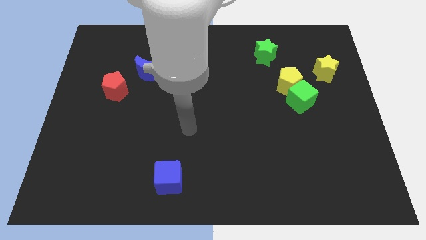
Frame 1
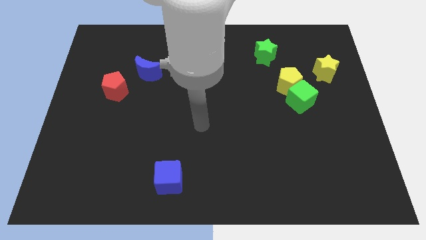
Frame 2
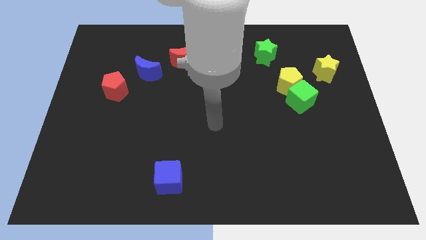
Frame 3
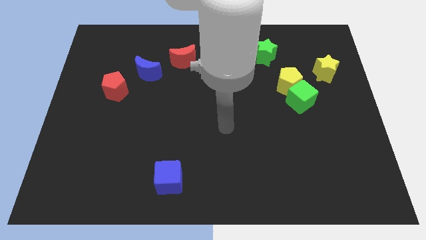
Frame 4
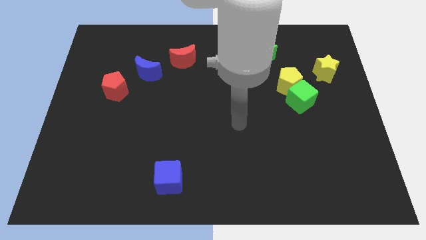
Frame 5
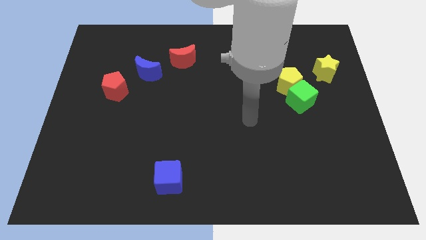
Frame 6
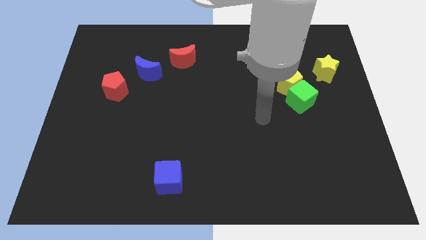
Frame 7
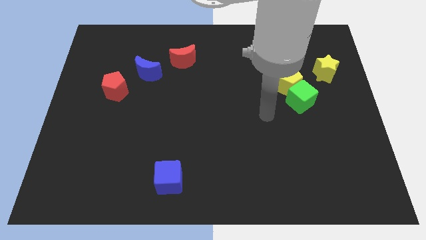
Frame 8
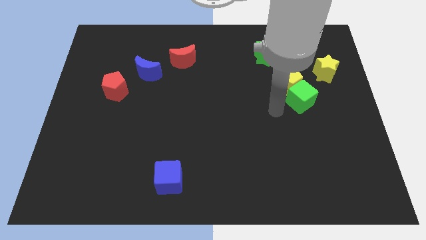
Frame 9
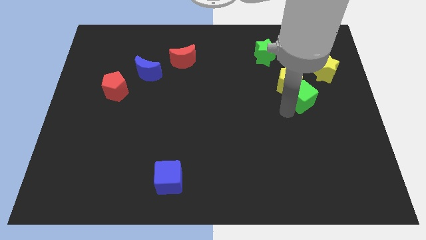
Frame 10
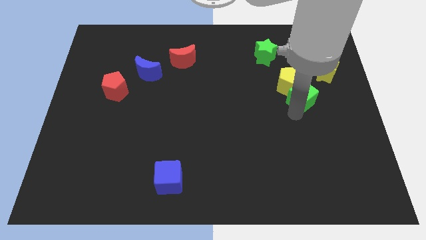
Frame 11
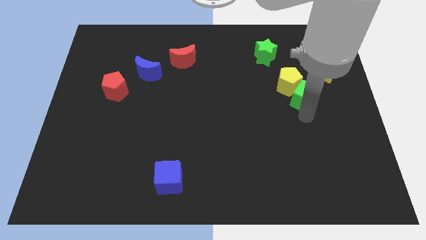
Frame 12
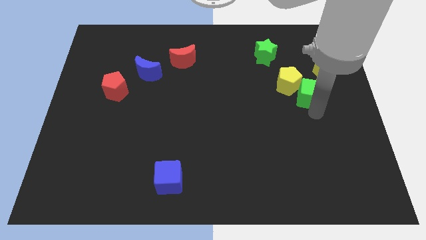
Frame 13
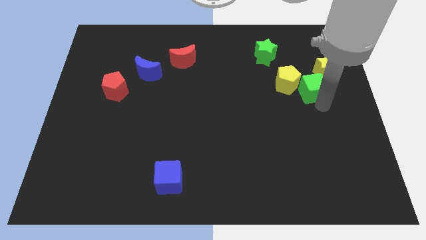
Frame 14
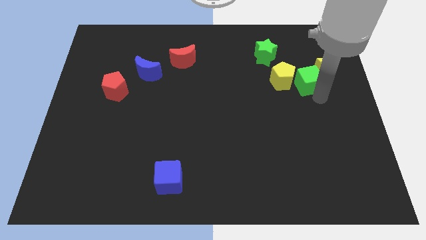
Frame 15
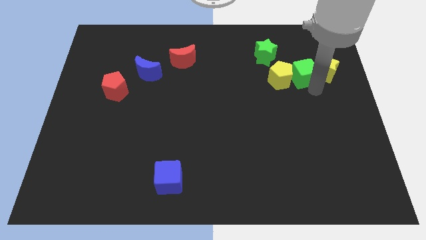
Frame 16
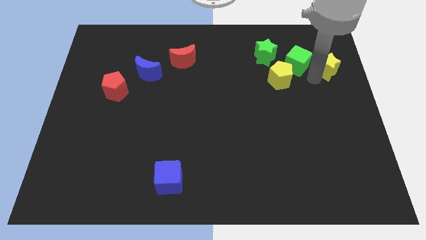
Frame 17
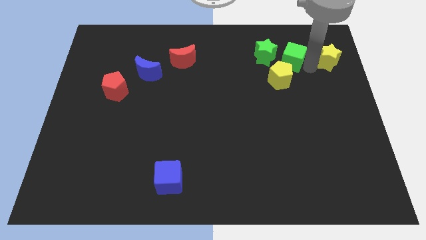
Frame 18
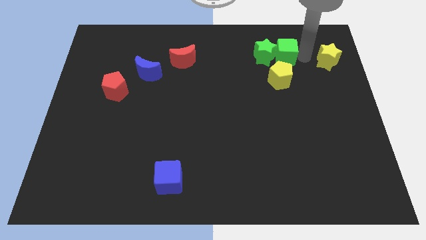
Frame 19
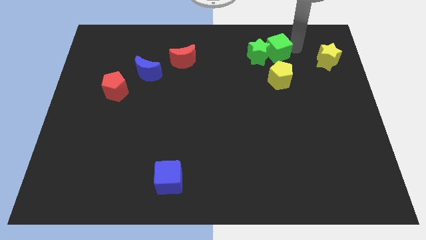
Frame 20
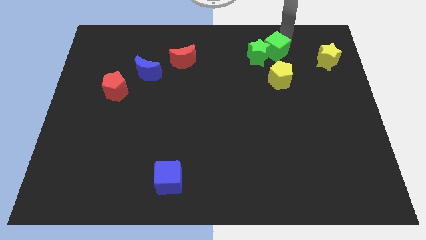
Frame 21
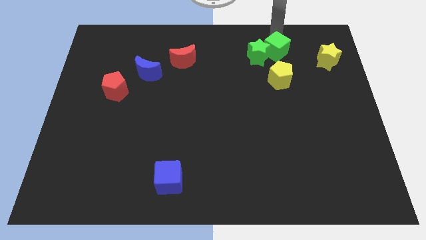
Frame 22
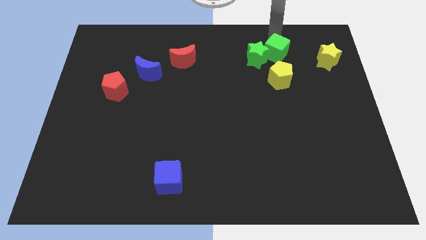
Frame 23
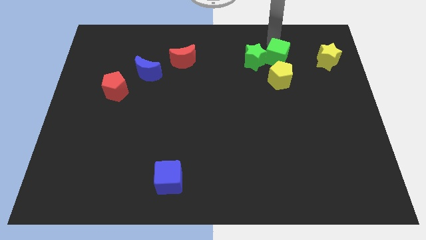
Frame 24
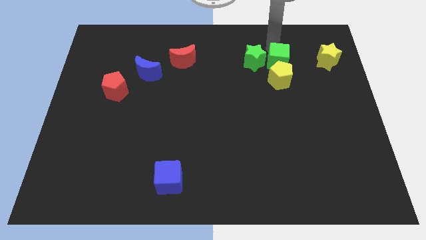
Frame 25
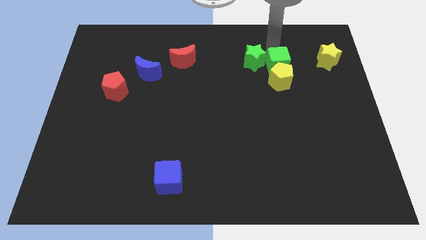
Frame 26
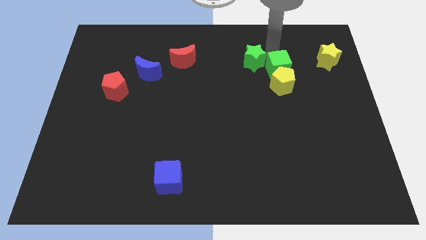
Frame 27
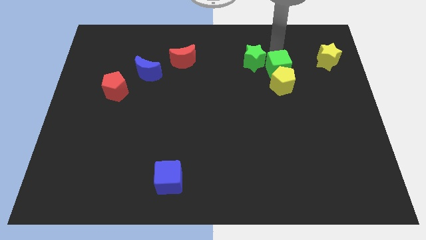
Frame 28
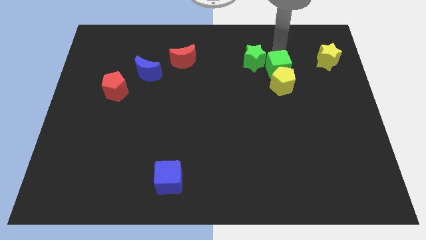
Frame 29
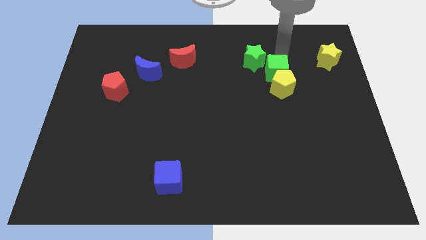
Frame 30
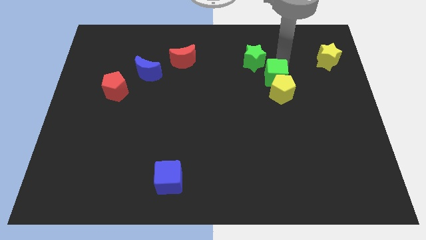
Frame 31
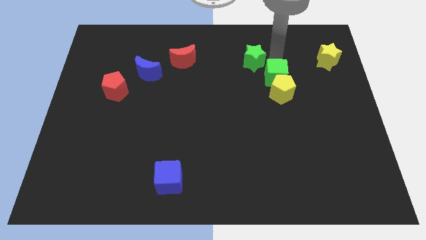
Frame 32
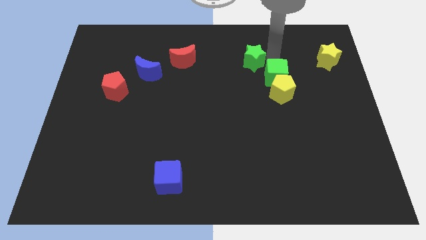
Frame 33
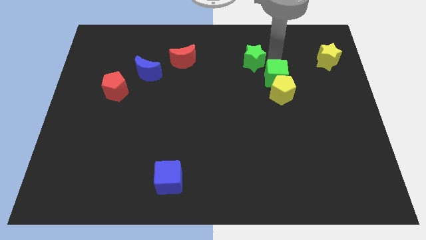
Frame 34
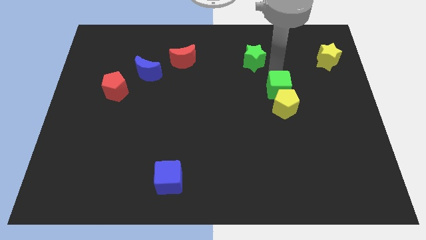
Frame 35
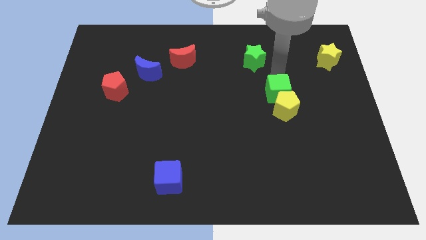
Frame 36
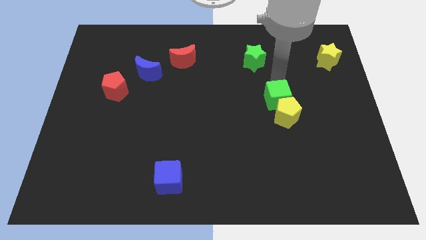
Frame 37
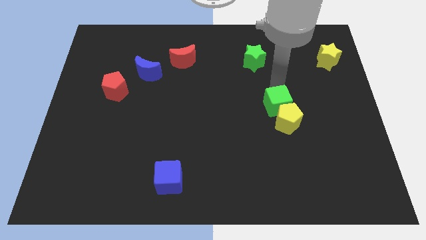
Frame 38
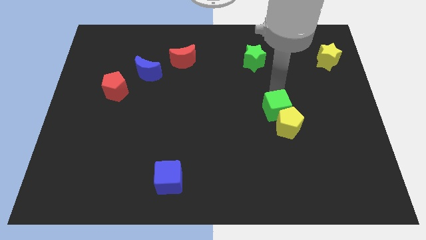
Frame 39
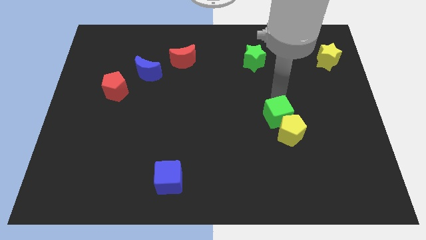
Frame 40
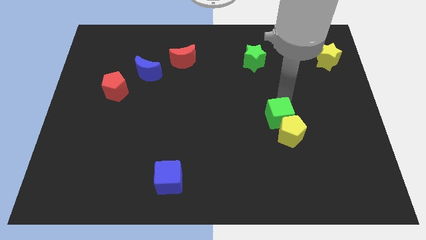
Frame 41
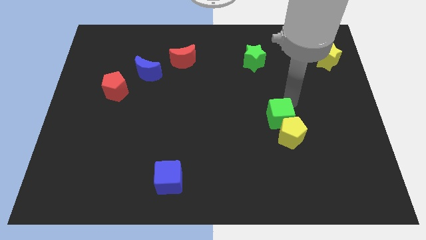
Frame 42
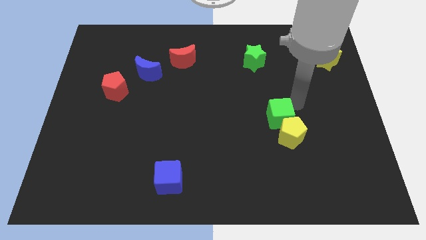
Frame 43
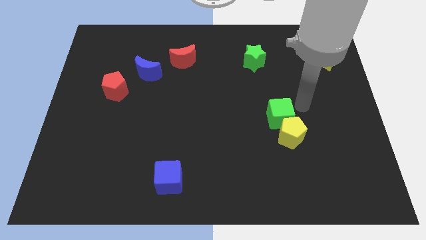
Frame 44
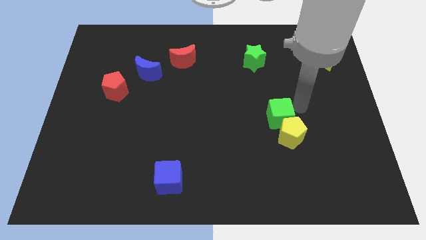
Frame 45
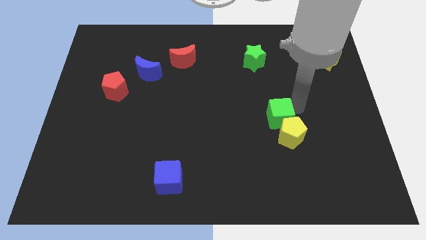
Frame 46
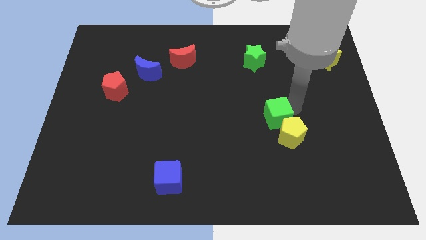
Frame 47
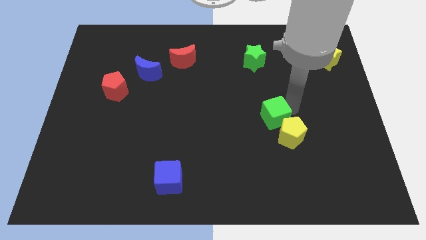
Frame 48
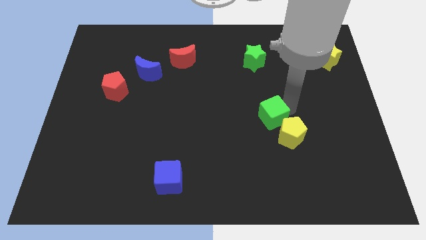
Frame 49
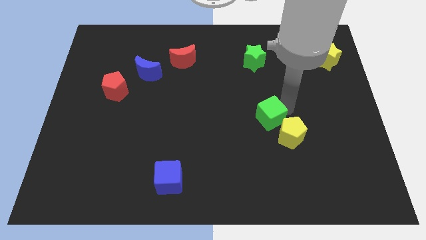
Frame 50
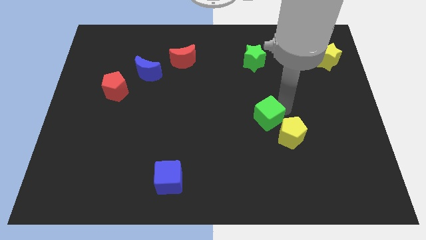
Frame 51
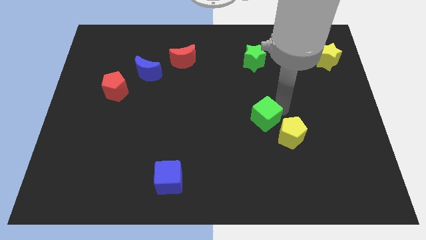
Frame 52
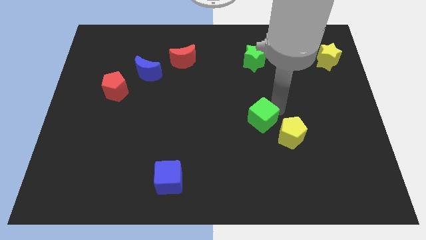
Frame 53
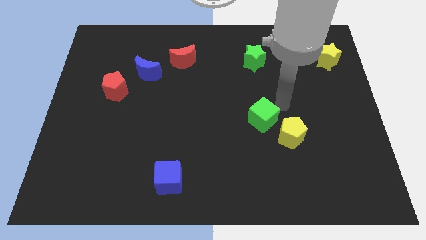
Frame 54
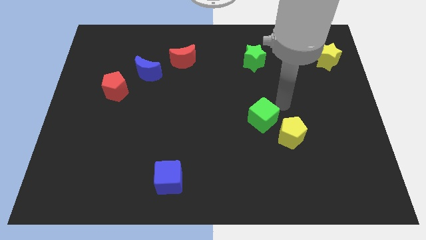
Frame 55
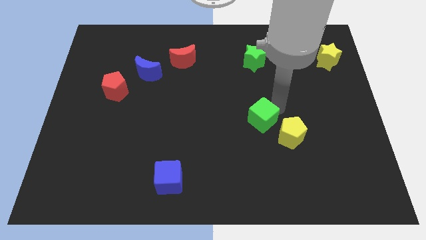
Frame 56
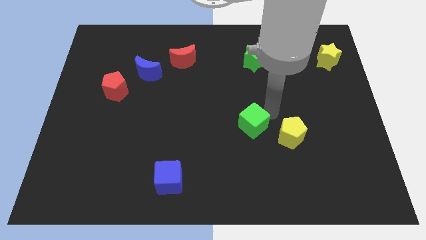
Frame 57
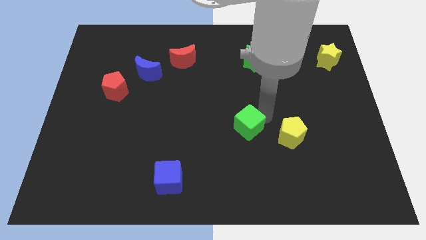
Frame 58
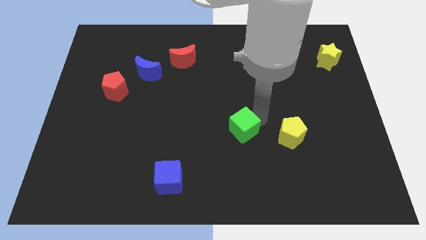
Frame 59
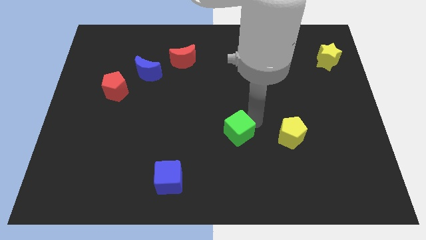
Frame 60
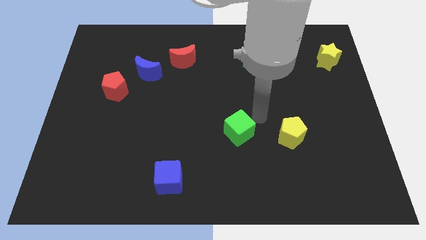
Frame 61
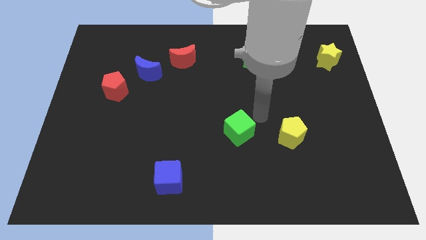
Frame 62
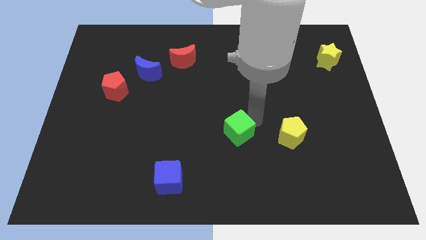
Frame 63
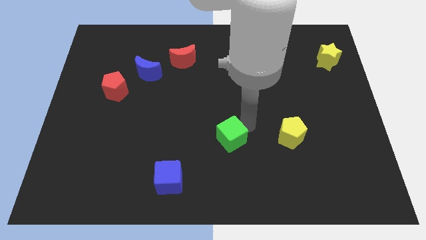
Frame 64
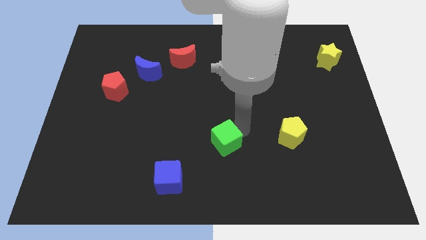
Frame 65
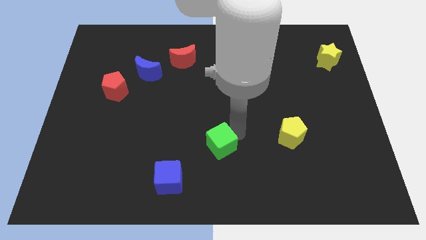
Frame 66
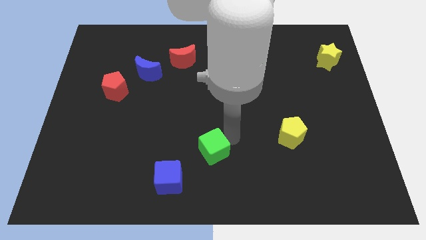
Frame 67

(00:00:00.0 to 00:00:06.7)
move the green cube diagonally up and to the right of the blue cube

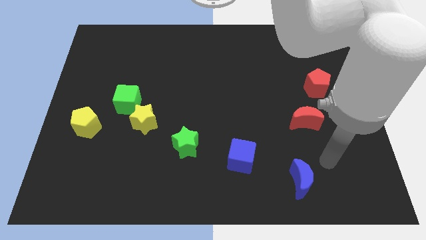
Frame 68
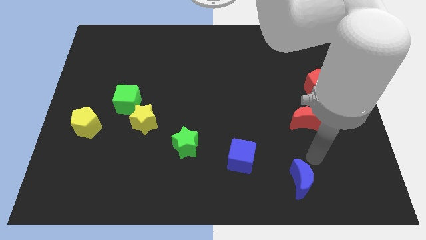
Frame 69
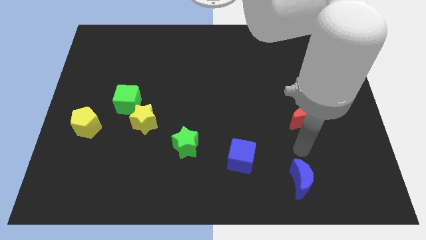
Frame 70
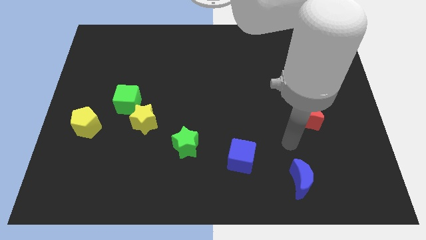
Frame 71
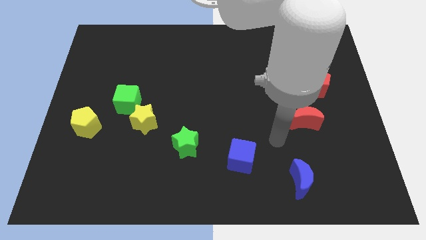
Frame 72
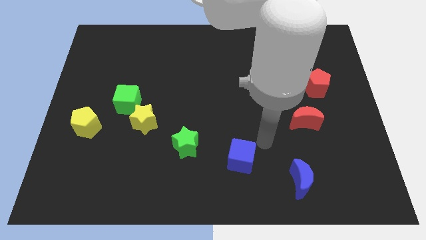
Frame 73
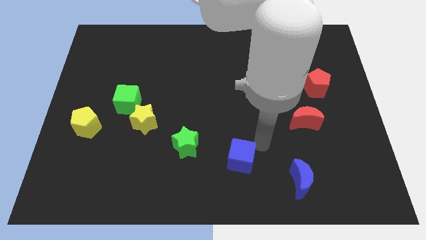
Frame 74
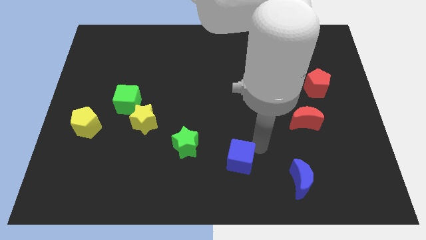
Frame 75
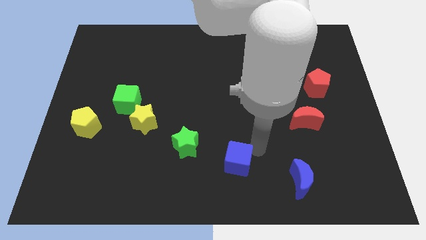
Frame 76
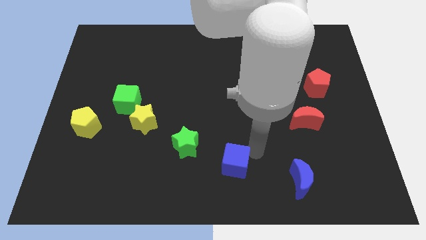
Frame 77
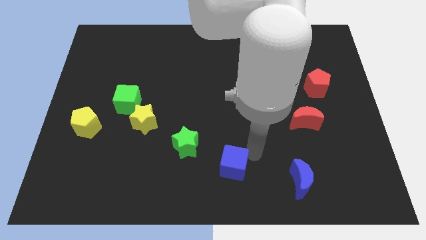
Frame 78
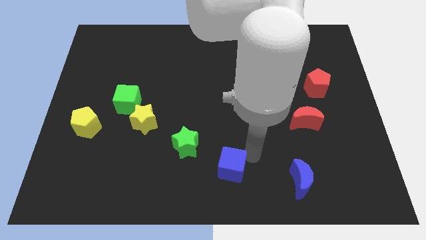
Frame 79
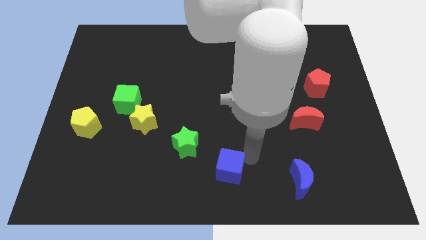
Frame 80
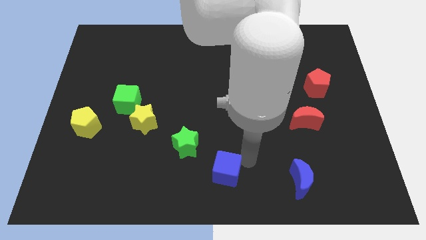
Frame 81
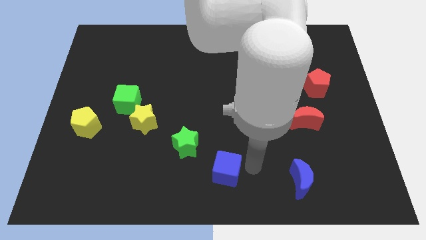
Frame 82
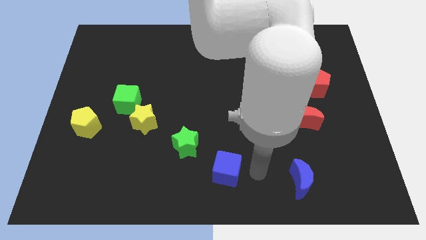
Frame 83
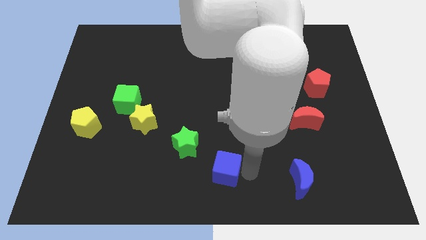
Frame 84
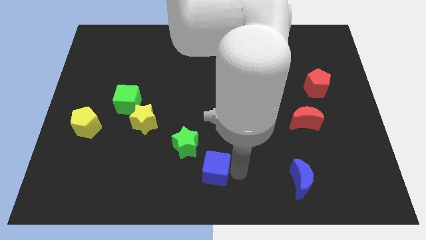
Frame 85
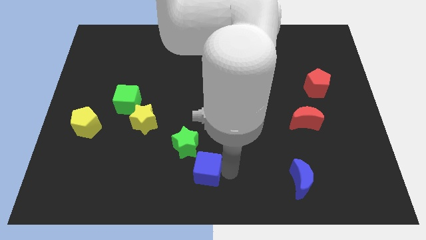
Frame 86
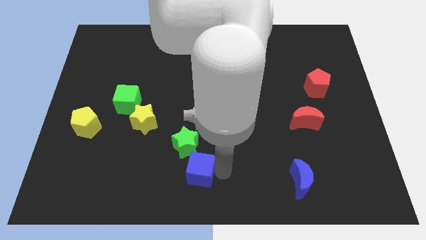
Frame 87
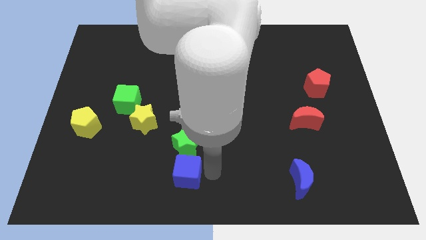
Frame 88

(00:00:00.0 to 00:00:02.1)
push the blue cube to the bottom left side of the green star
